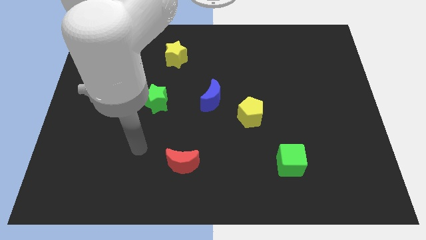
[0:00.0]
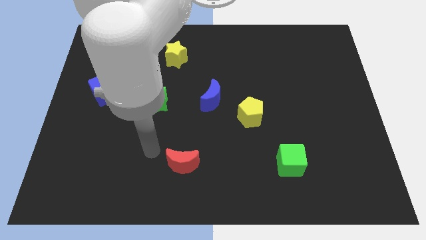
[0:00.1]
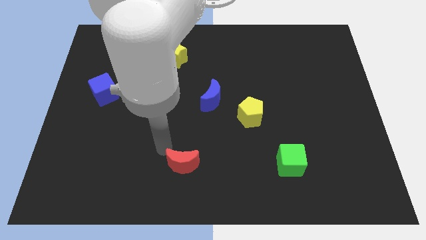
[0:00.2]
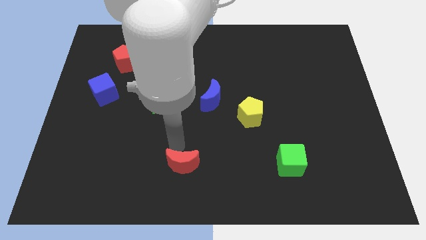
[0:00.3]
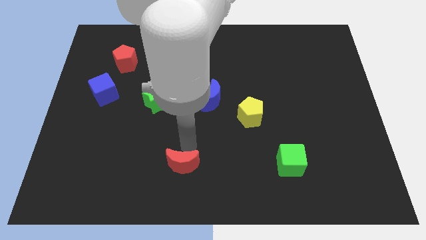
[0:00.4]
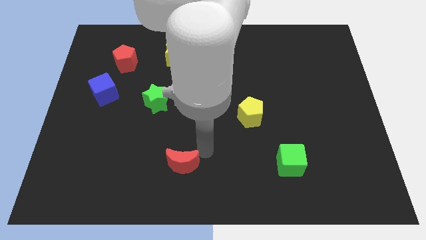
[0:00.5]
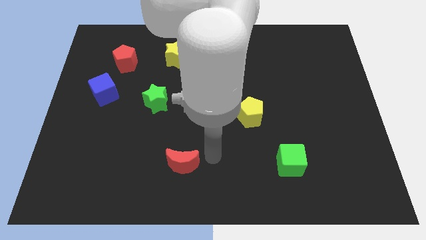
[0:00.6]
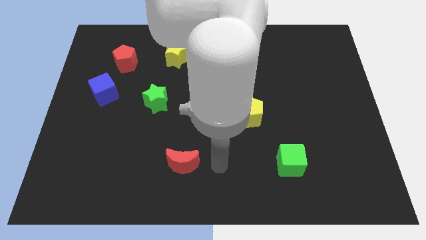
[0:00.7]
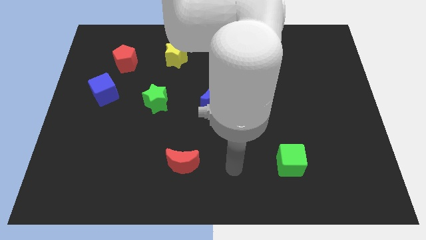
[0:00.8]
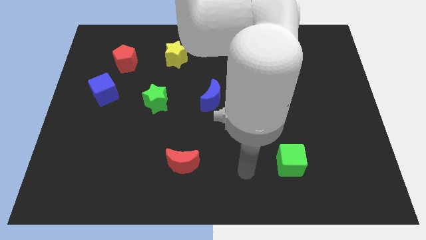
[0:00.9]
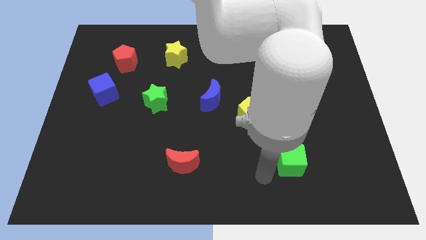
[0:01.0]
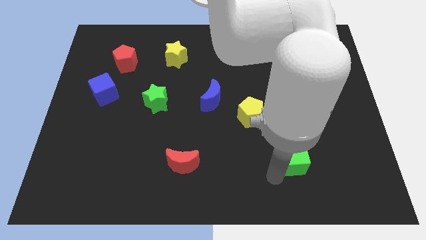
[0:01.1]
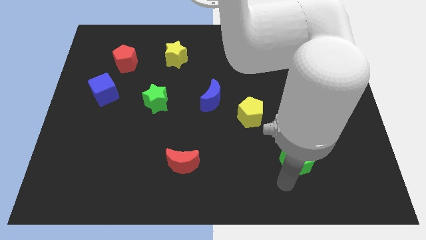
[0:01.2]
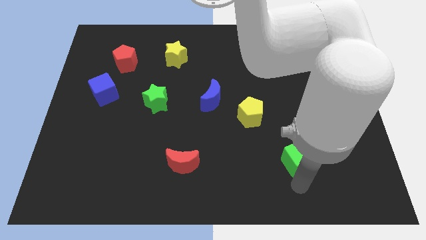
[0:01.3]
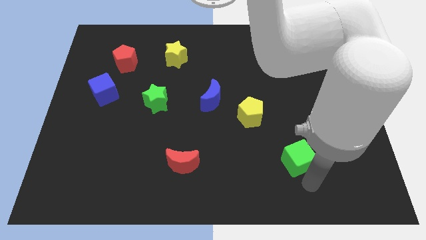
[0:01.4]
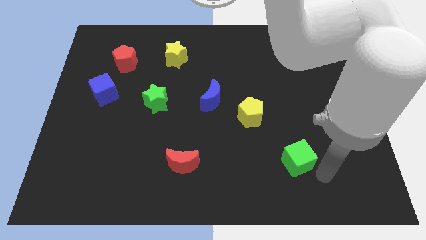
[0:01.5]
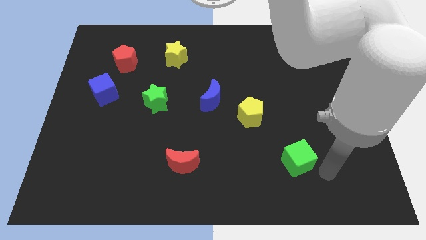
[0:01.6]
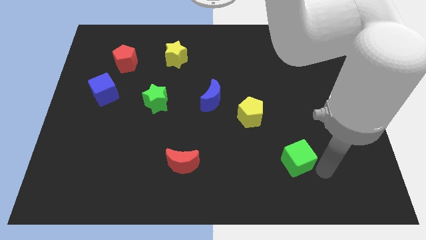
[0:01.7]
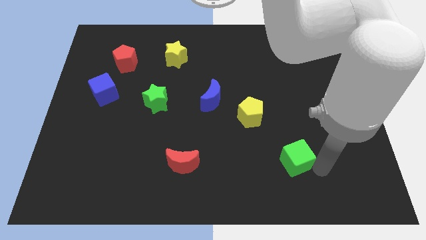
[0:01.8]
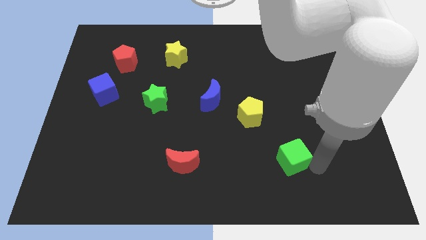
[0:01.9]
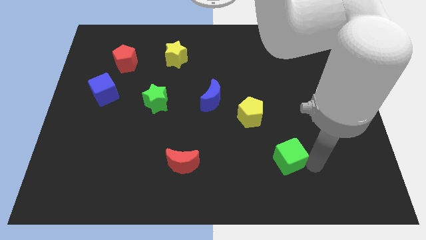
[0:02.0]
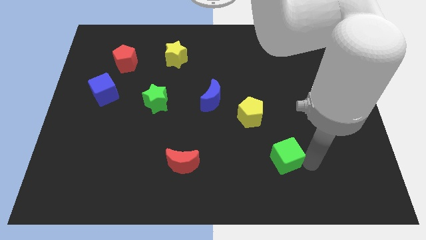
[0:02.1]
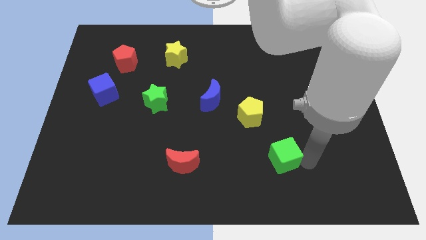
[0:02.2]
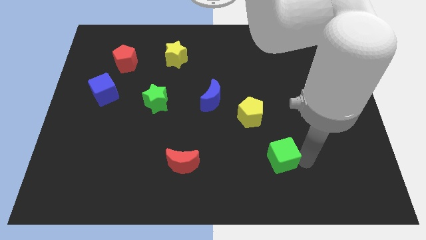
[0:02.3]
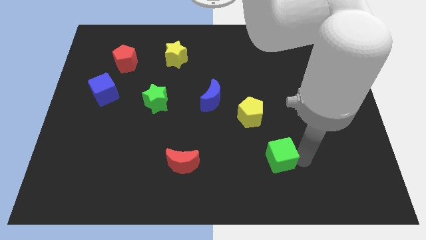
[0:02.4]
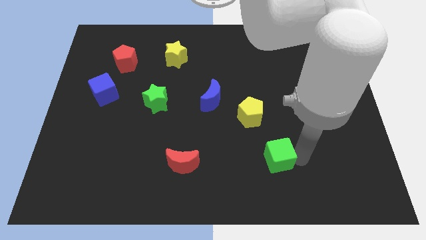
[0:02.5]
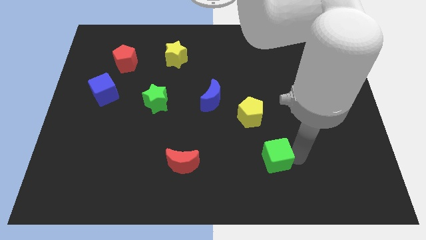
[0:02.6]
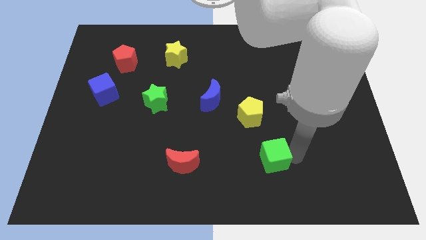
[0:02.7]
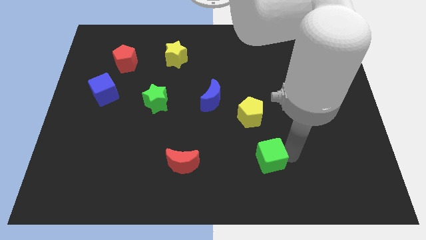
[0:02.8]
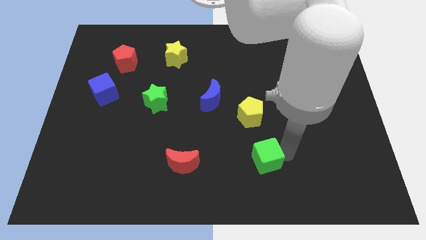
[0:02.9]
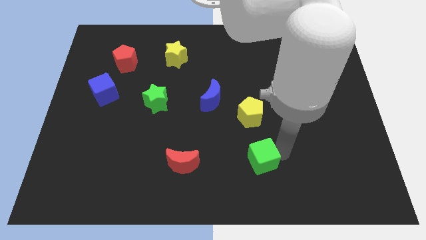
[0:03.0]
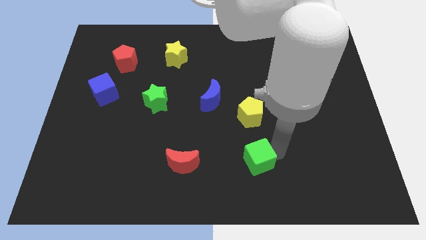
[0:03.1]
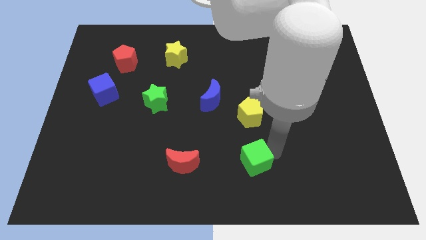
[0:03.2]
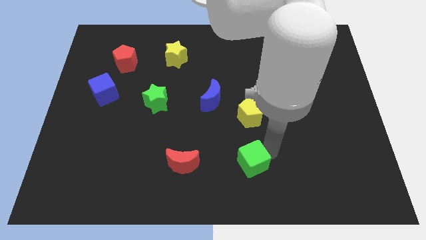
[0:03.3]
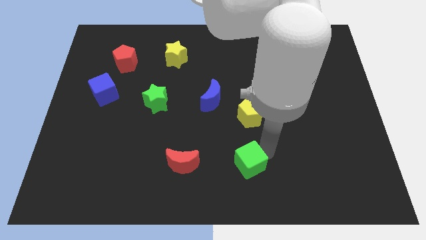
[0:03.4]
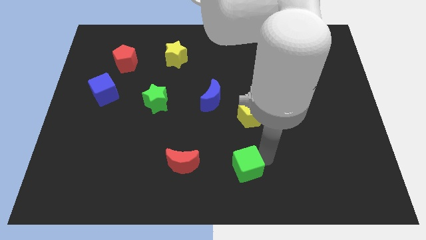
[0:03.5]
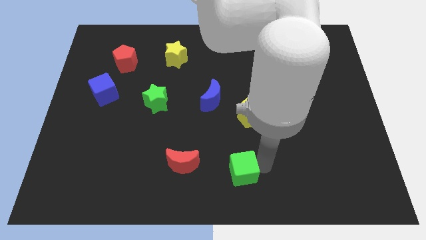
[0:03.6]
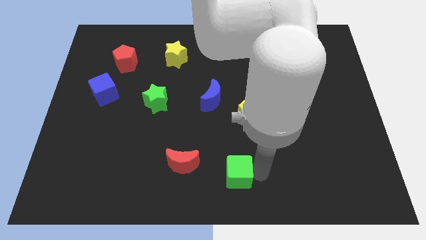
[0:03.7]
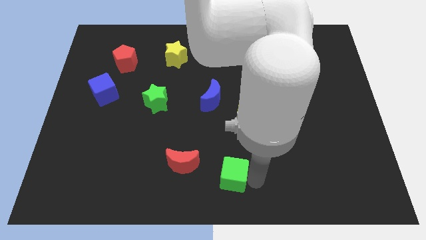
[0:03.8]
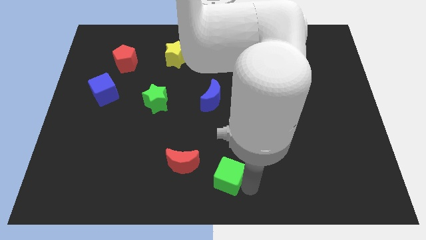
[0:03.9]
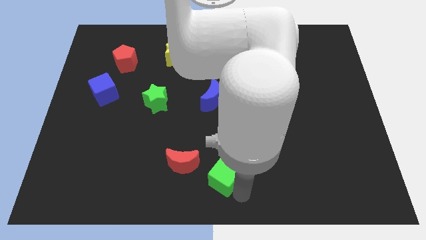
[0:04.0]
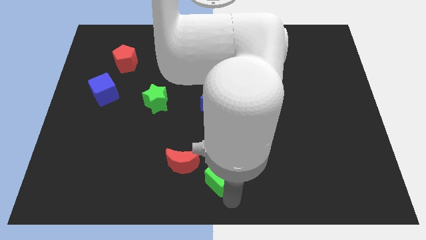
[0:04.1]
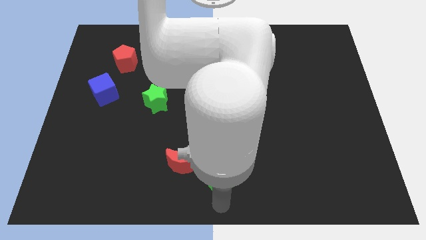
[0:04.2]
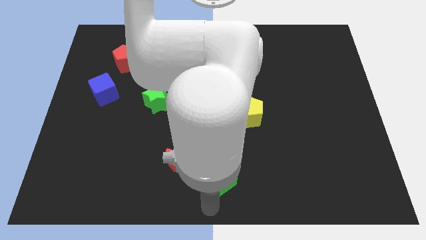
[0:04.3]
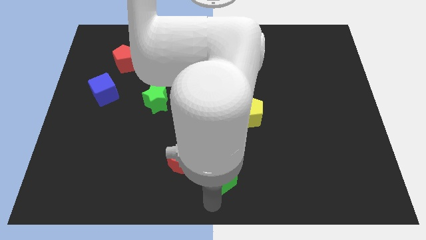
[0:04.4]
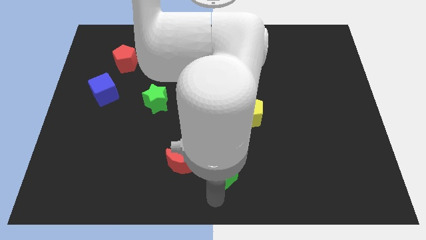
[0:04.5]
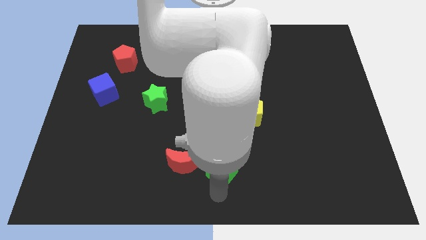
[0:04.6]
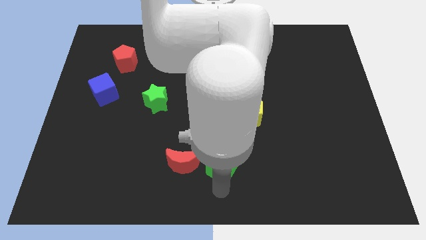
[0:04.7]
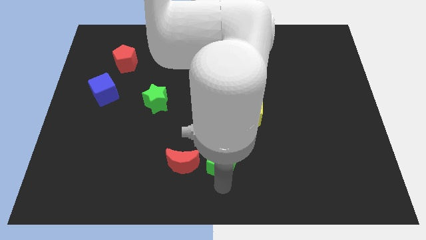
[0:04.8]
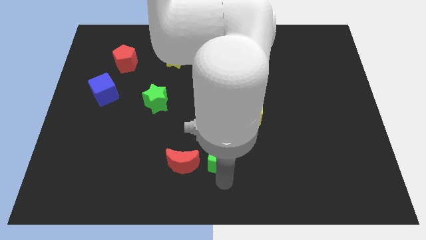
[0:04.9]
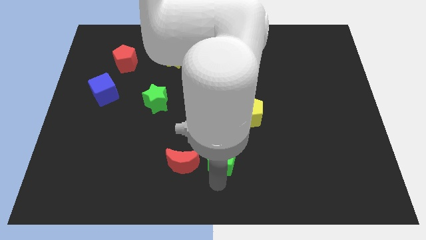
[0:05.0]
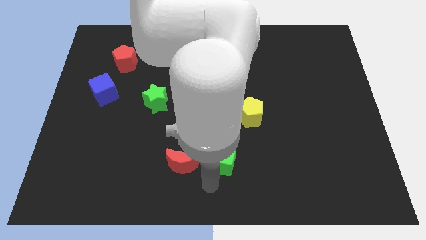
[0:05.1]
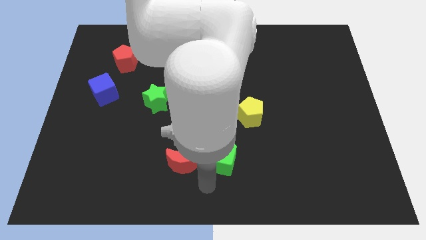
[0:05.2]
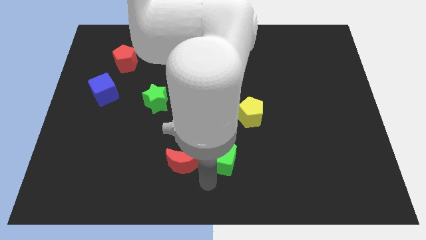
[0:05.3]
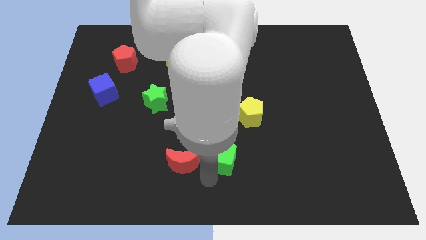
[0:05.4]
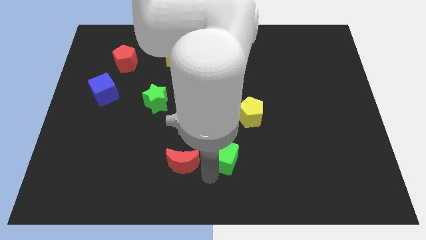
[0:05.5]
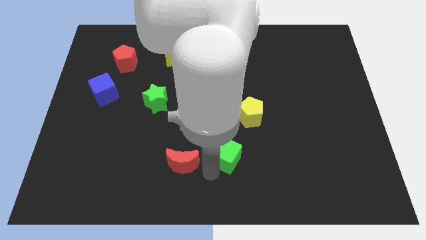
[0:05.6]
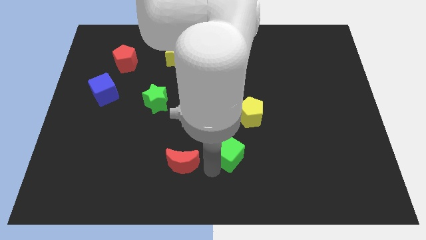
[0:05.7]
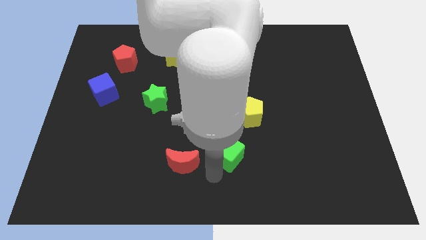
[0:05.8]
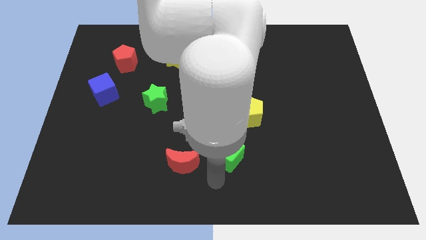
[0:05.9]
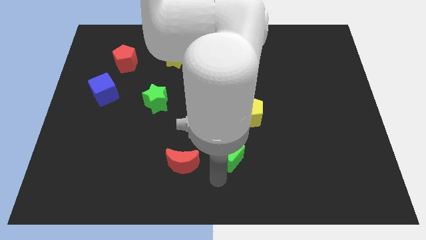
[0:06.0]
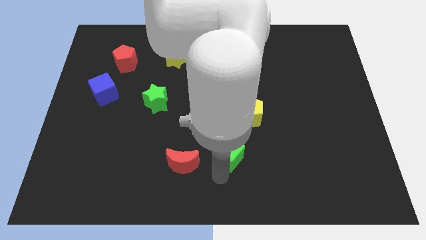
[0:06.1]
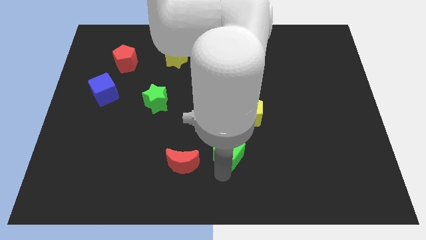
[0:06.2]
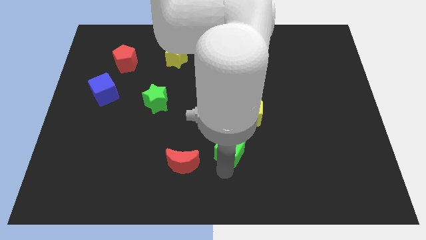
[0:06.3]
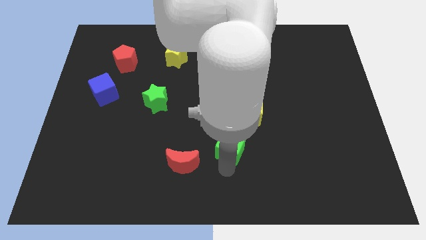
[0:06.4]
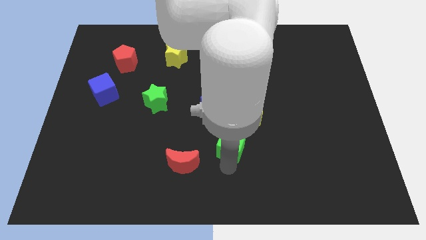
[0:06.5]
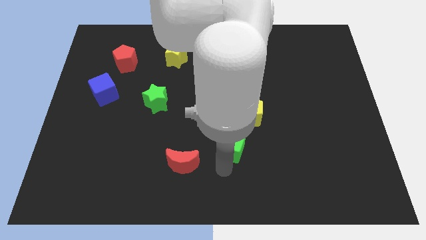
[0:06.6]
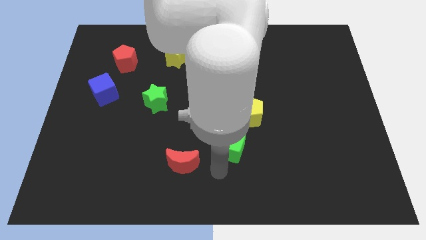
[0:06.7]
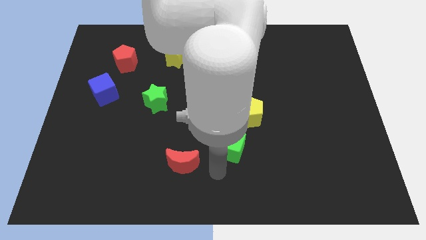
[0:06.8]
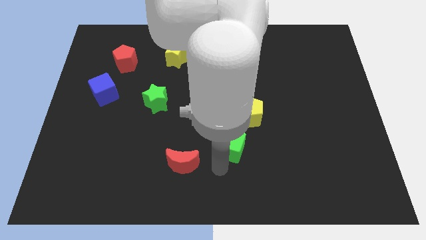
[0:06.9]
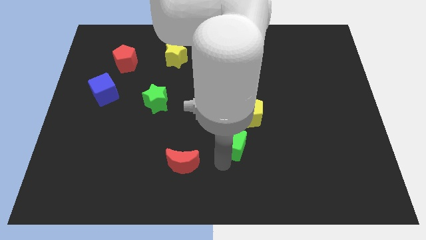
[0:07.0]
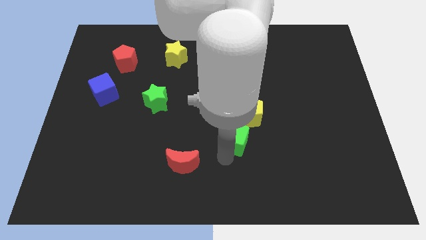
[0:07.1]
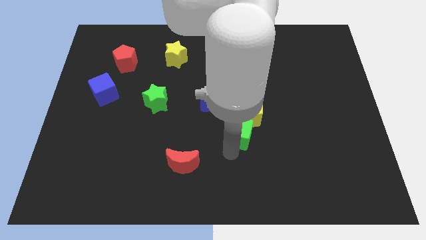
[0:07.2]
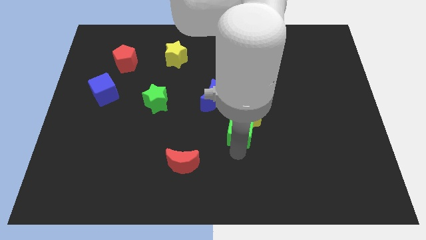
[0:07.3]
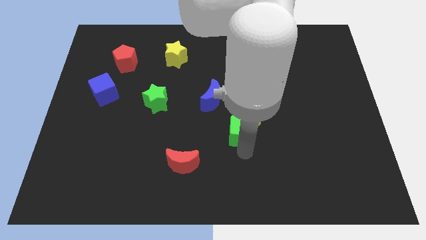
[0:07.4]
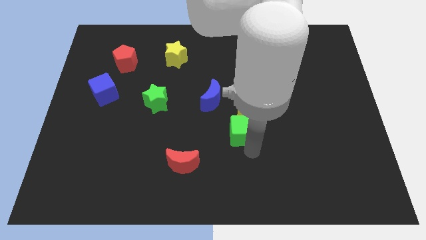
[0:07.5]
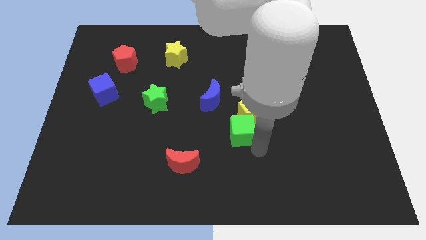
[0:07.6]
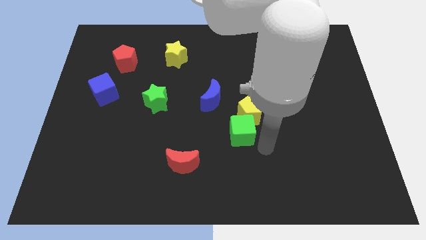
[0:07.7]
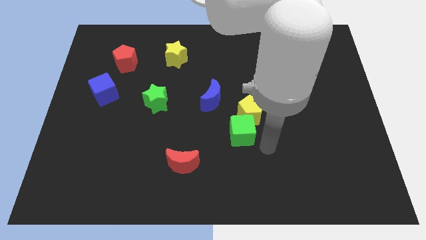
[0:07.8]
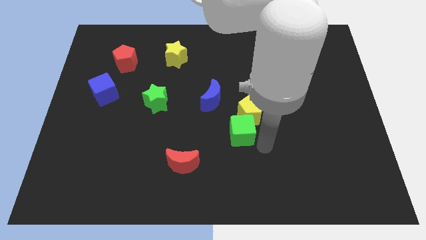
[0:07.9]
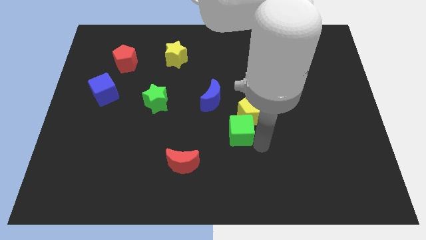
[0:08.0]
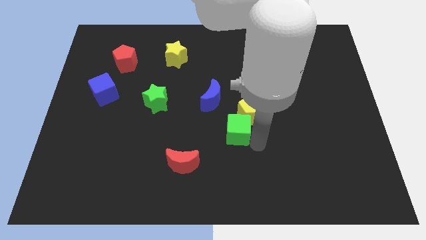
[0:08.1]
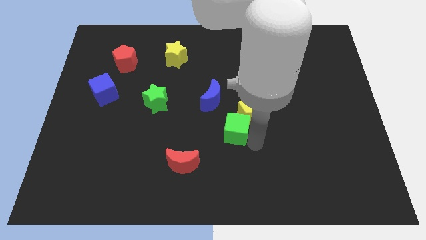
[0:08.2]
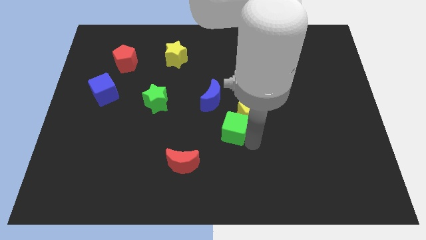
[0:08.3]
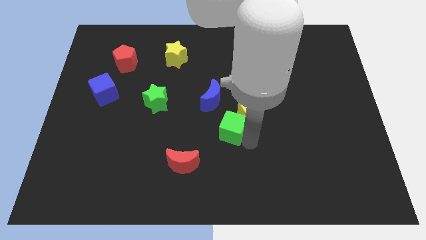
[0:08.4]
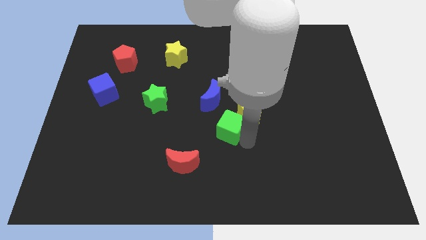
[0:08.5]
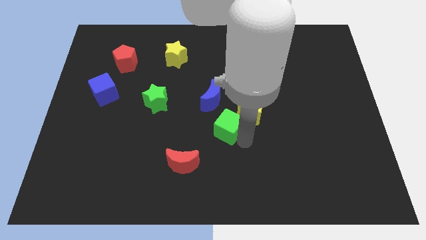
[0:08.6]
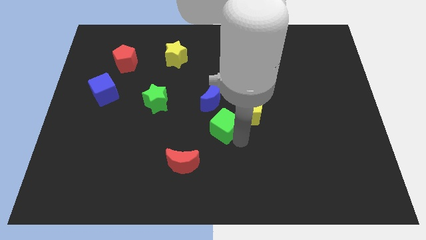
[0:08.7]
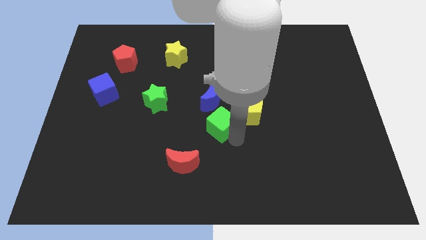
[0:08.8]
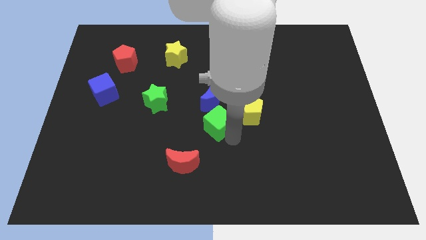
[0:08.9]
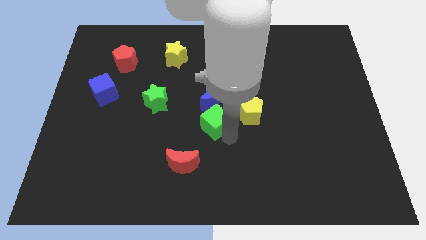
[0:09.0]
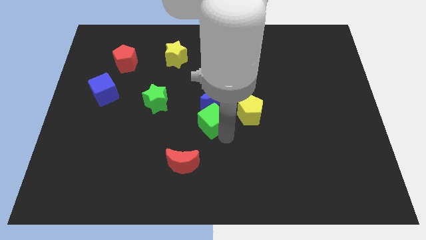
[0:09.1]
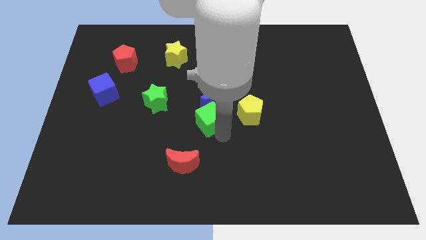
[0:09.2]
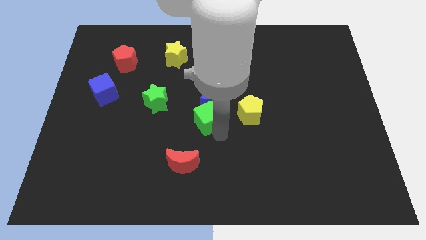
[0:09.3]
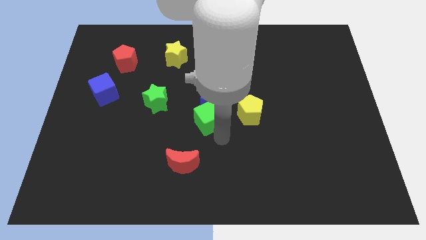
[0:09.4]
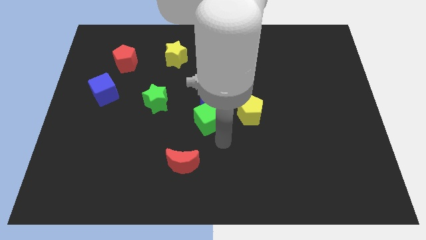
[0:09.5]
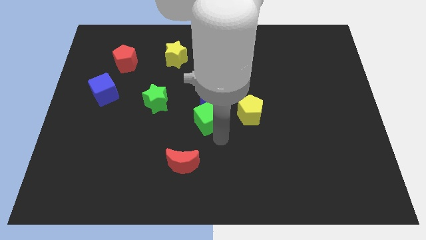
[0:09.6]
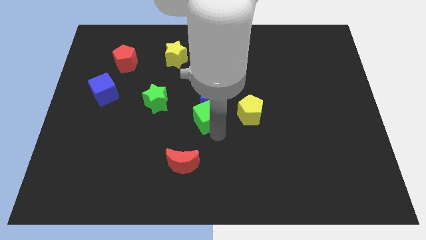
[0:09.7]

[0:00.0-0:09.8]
push the green cube up and to the left diagonally
